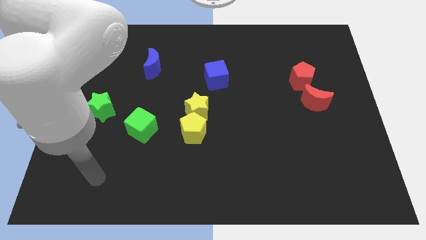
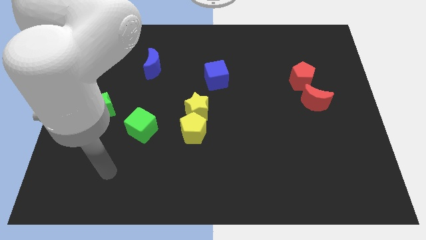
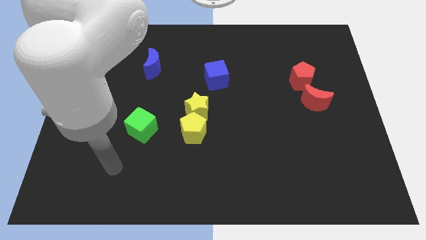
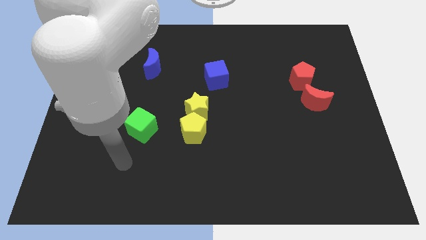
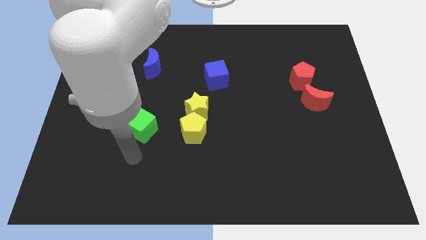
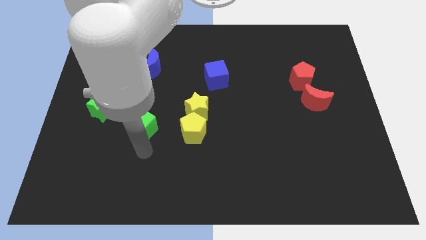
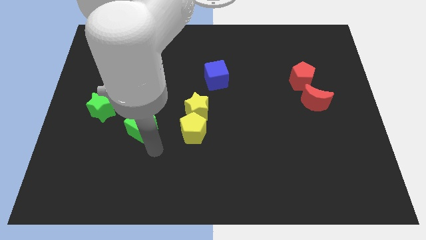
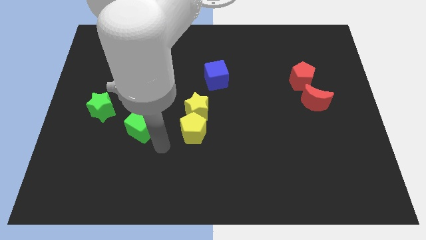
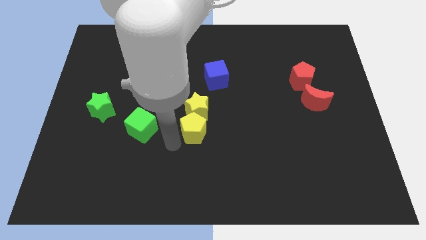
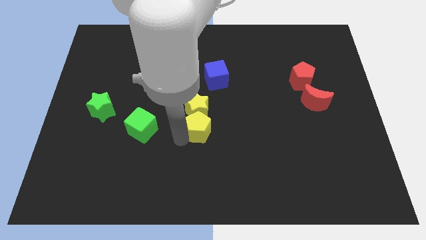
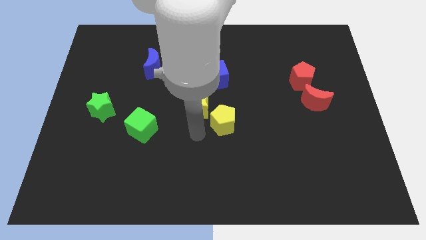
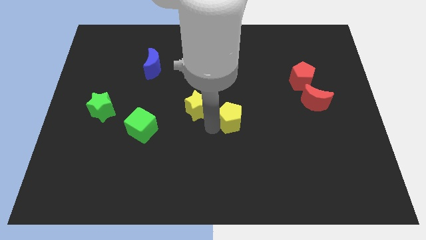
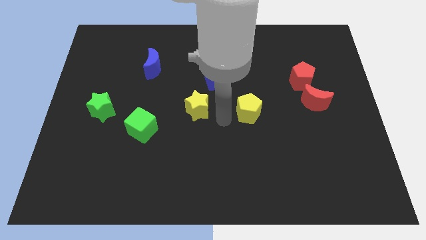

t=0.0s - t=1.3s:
move the yellow star away from the yellow pentagon

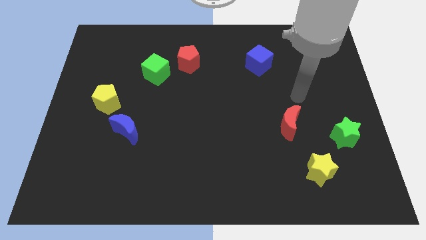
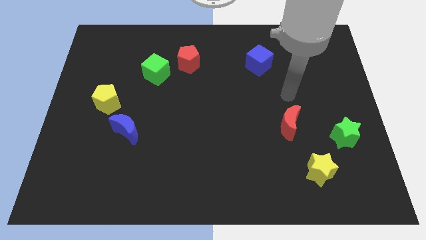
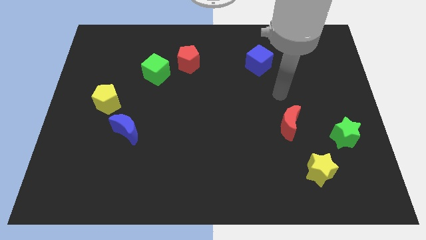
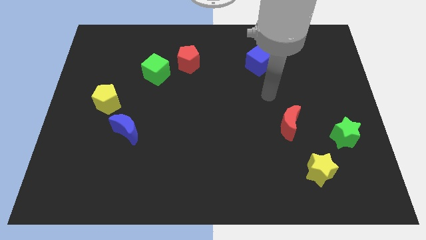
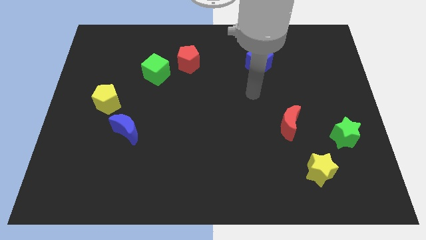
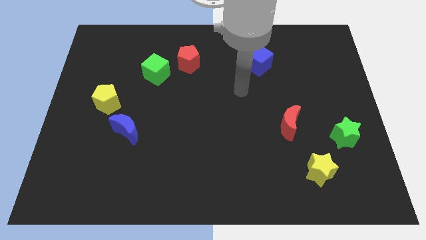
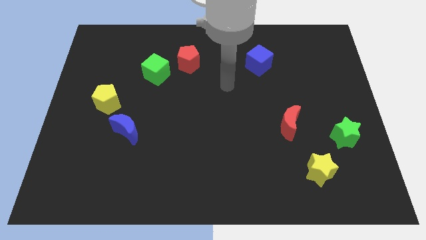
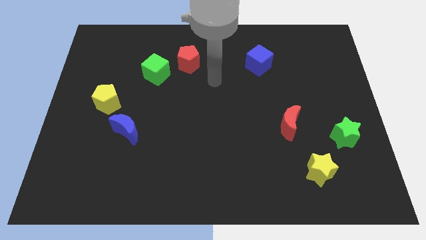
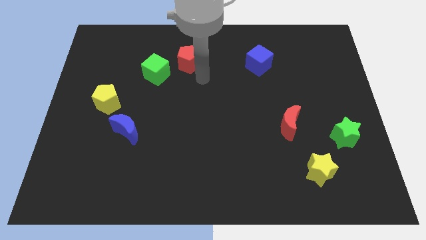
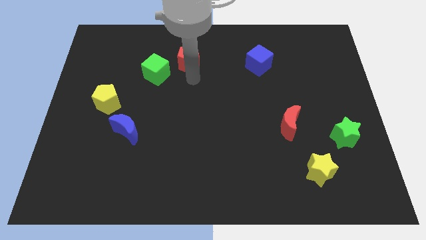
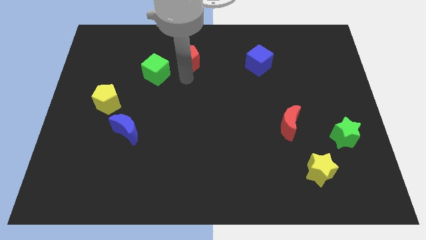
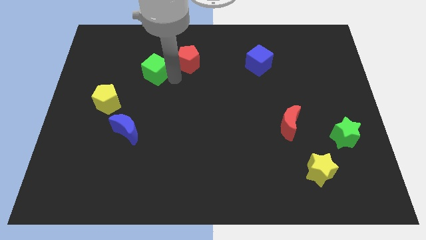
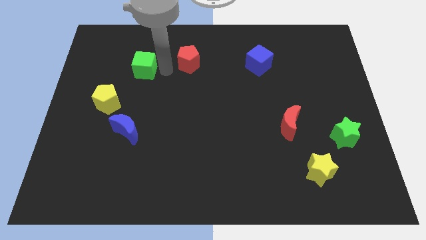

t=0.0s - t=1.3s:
separate the red pentagon from the green cube

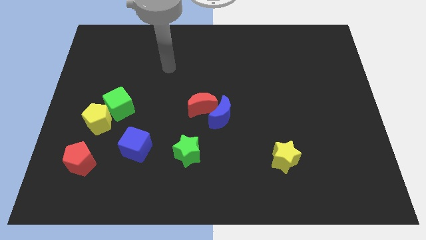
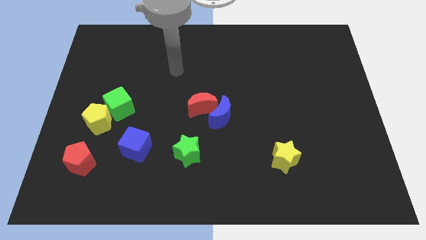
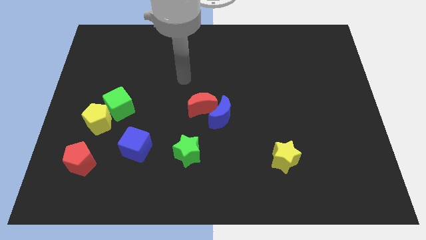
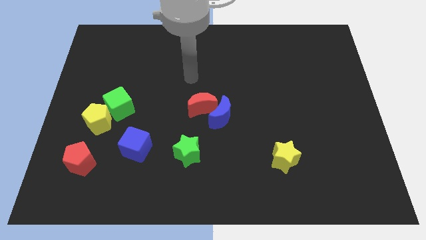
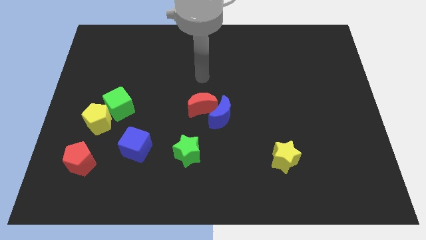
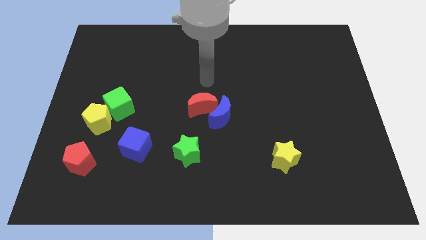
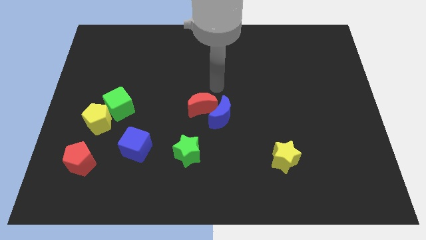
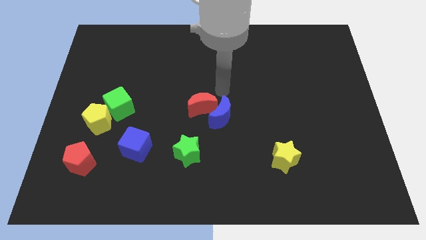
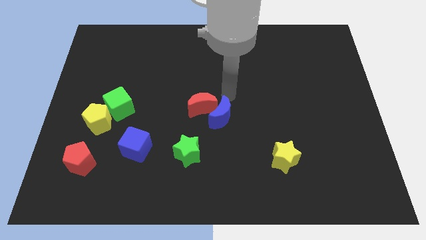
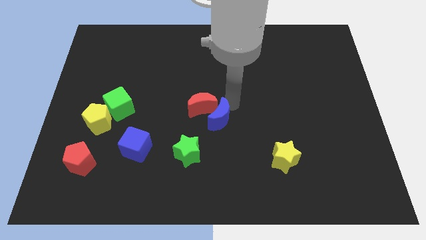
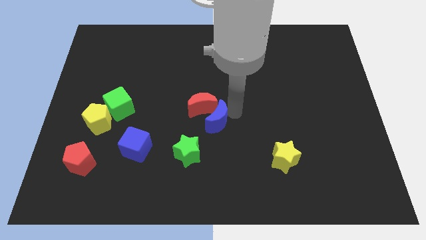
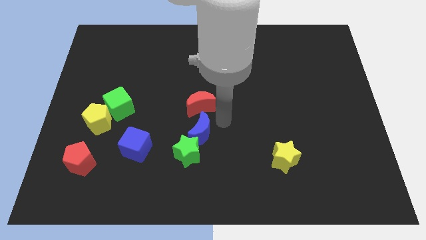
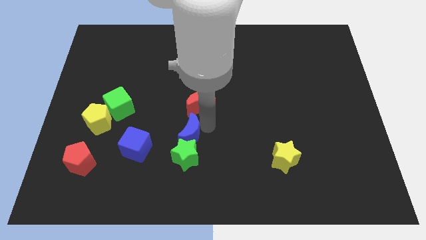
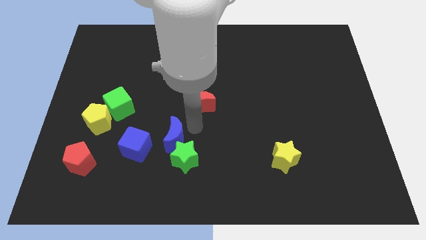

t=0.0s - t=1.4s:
separate the red moon from the blue moon

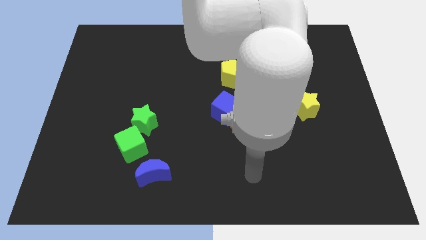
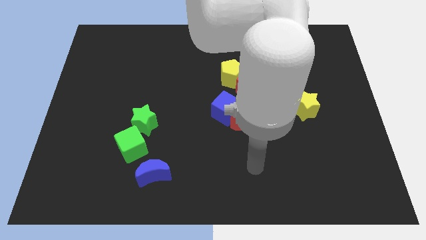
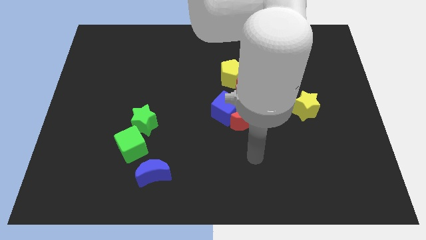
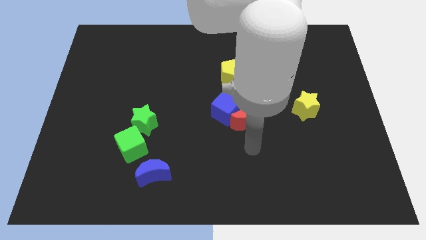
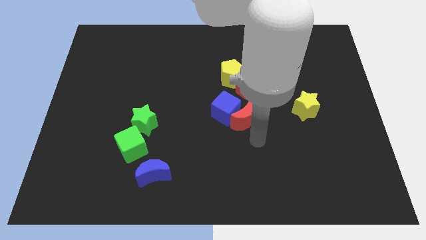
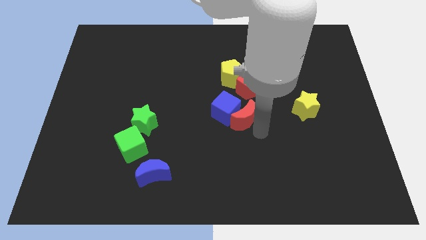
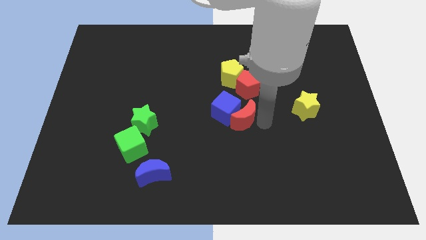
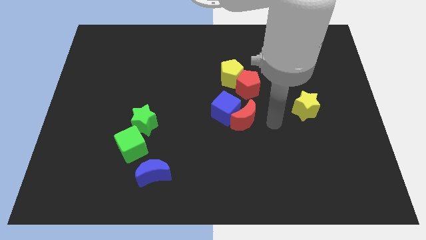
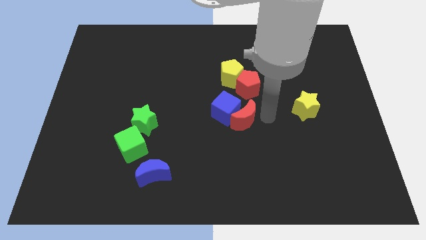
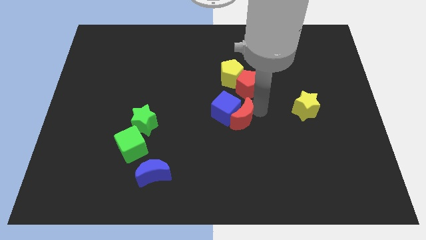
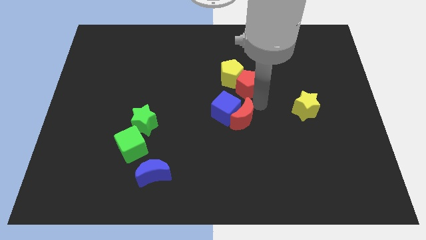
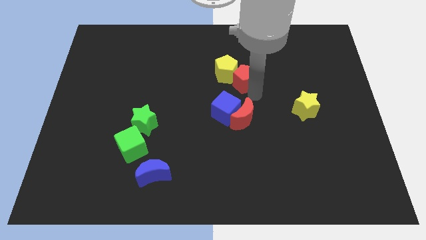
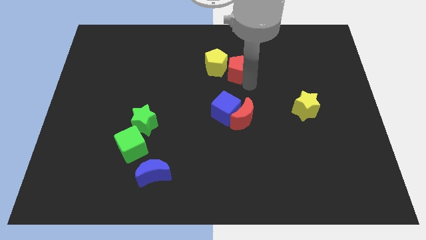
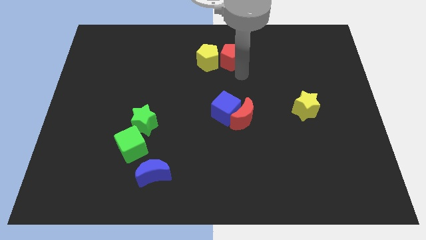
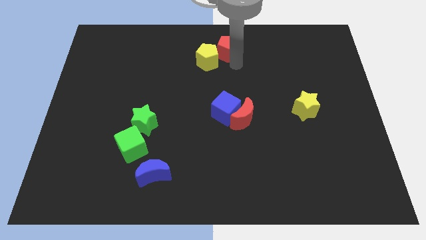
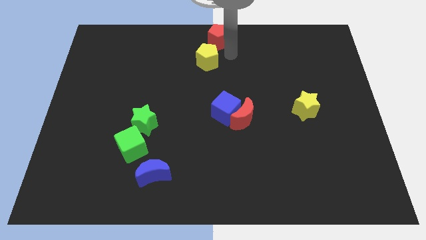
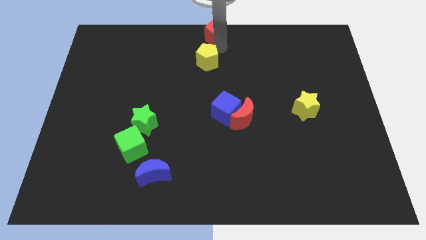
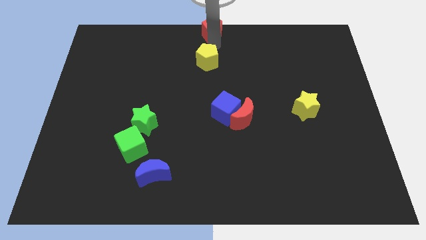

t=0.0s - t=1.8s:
pull the yellow pentagon apart from the red pentagon

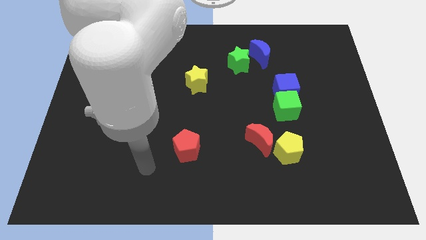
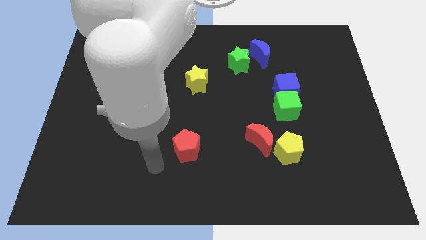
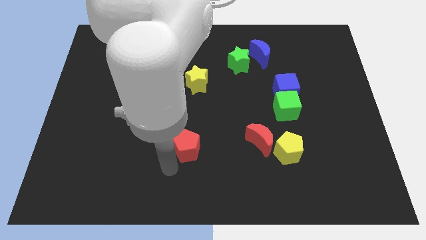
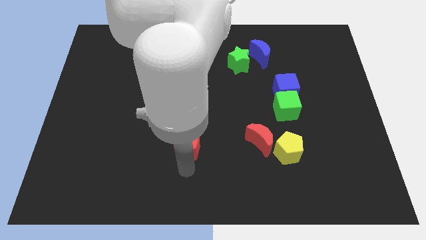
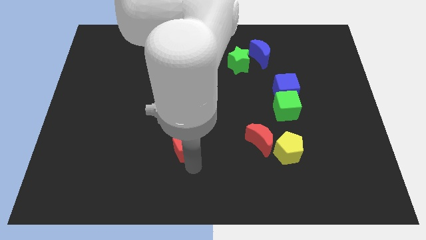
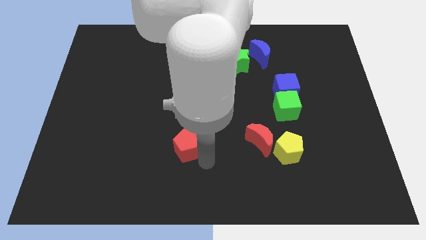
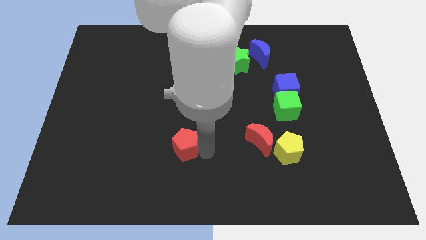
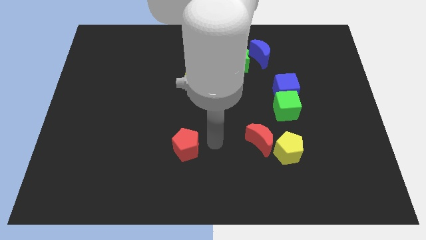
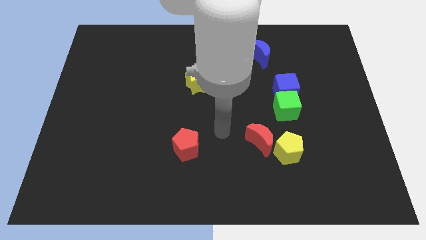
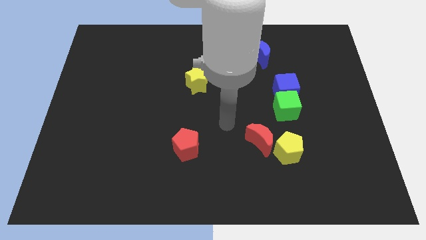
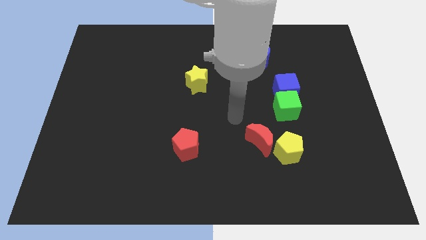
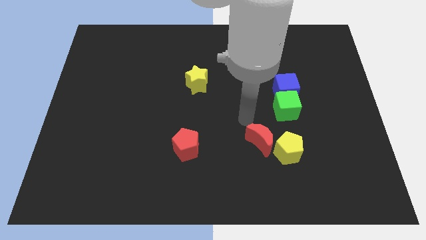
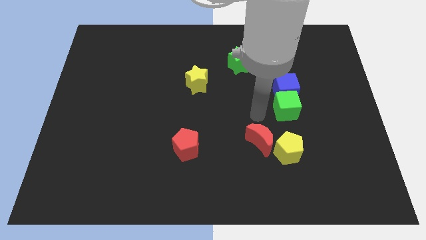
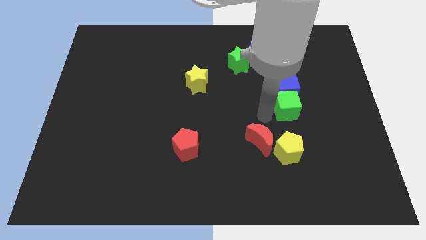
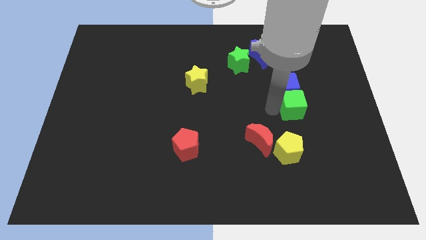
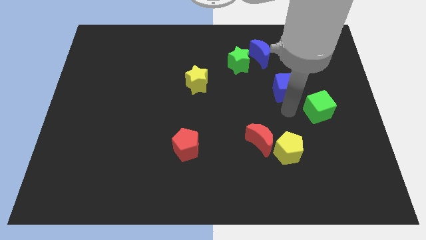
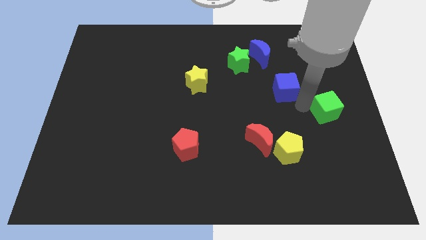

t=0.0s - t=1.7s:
pull the blue cube apart from the green cube

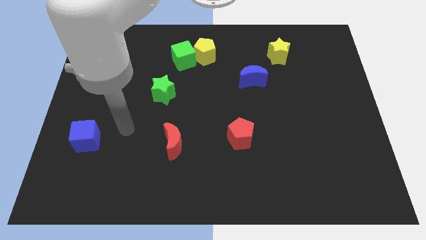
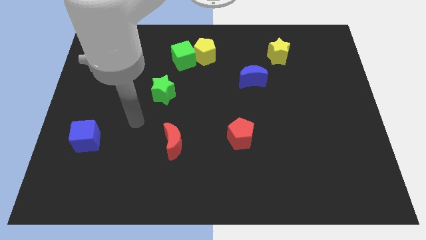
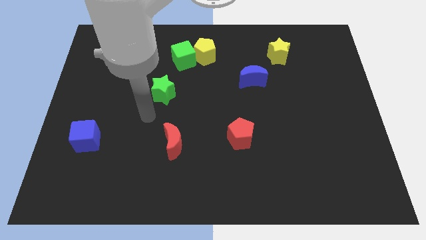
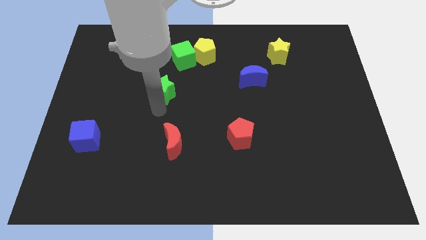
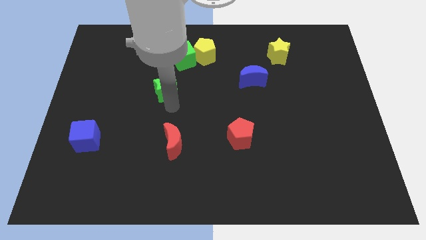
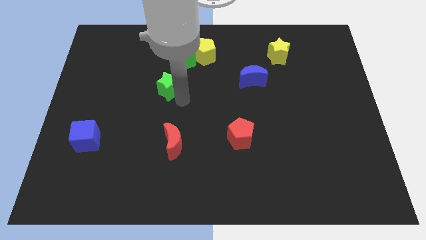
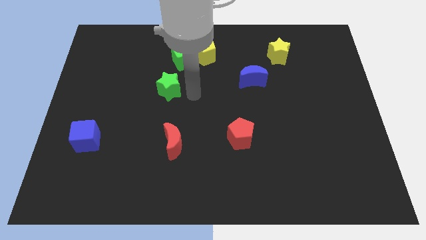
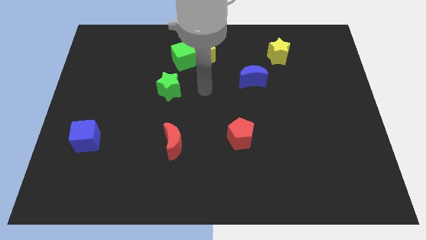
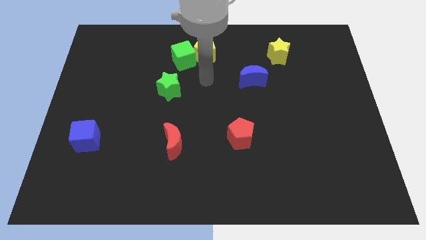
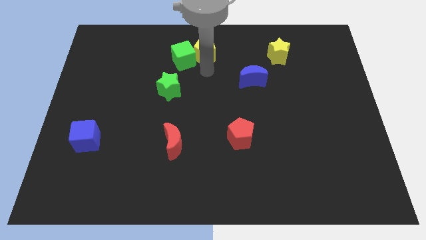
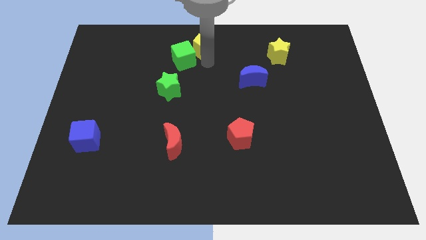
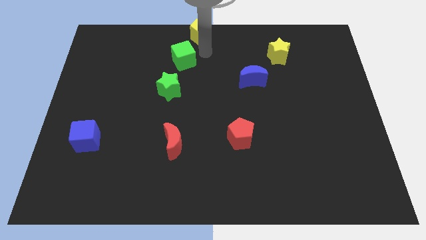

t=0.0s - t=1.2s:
move the green cube away from the yellow pentagon

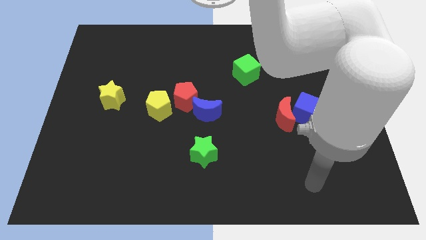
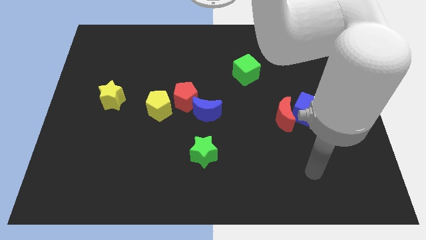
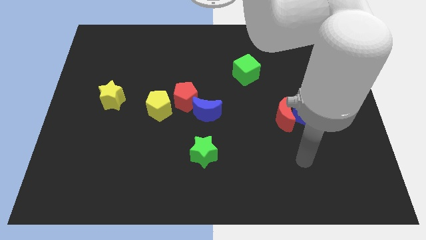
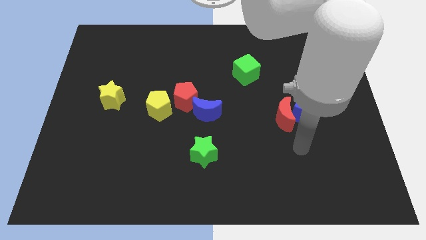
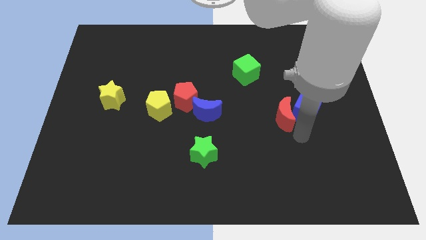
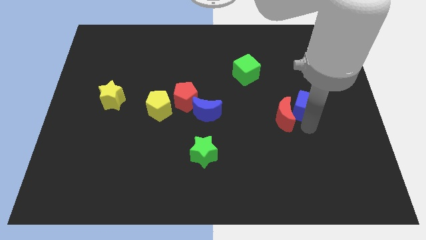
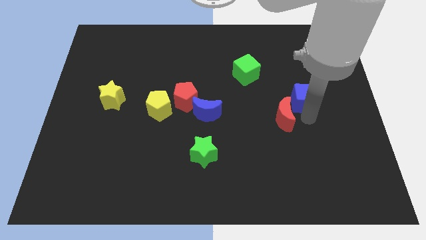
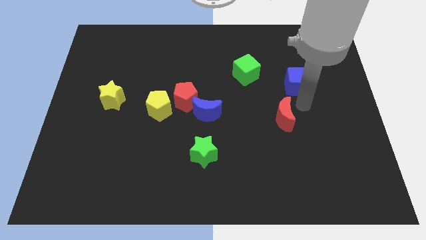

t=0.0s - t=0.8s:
move the red moon away from the blue cube
